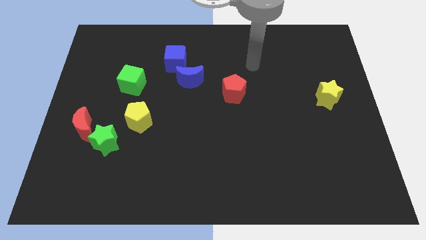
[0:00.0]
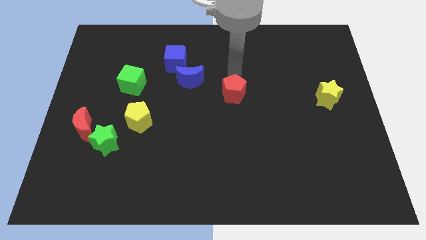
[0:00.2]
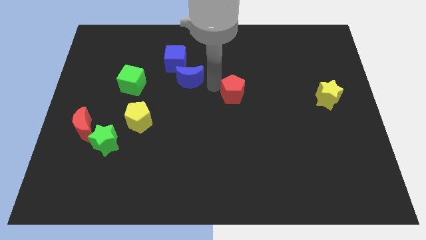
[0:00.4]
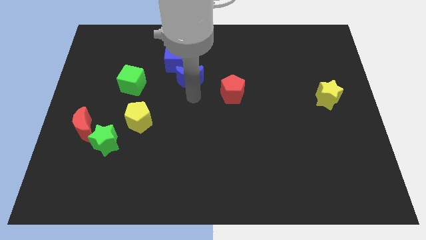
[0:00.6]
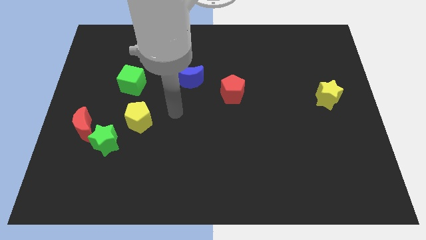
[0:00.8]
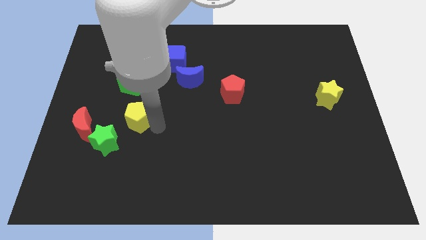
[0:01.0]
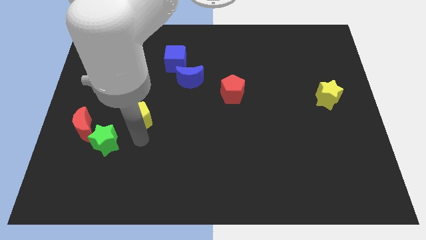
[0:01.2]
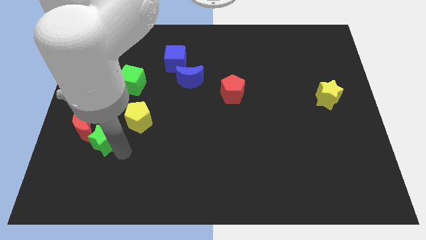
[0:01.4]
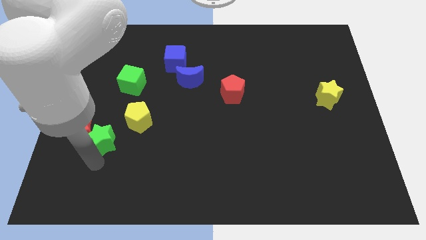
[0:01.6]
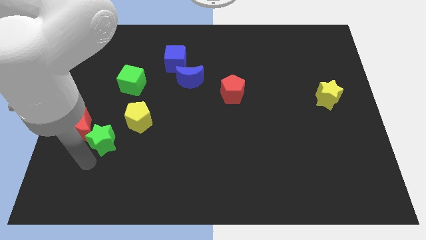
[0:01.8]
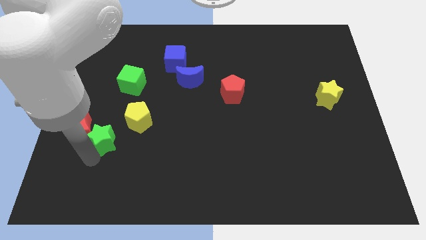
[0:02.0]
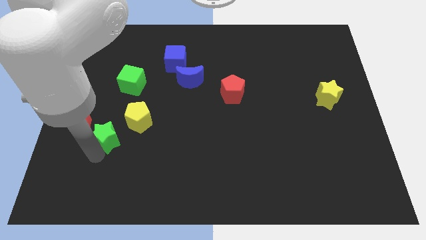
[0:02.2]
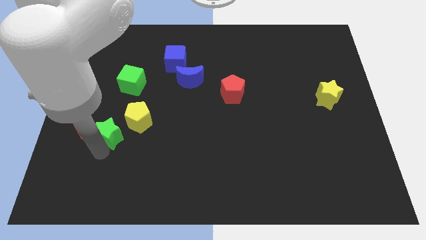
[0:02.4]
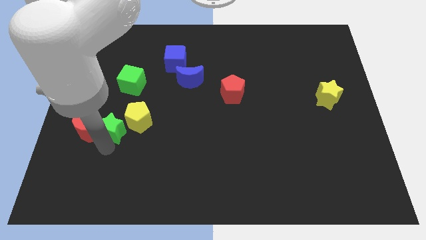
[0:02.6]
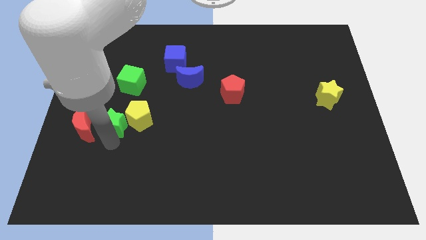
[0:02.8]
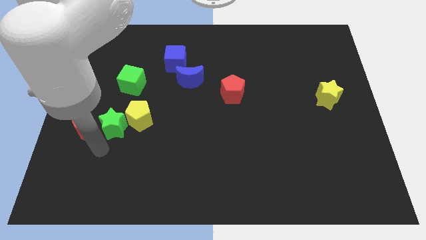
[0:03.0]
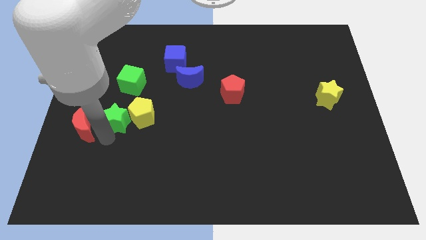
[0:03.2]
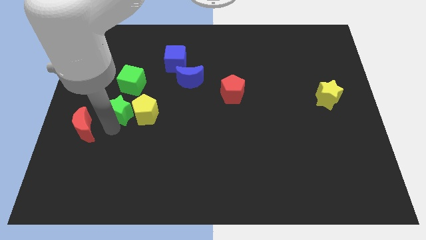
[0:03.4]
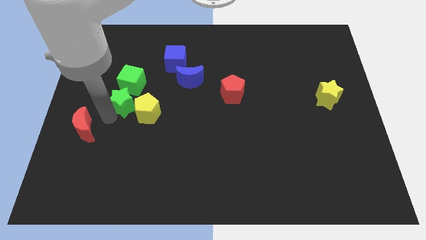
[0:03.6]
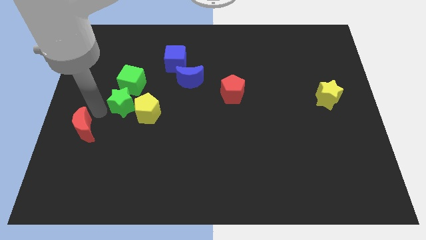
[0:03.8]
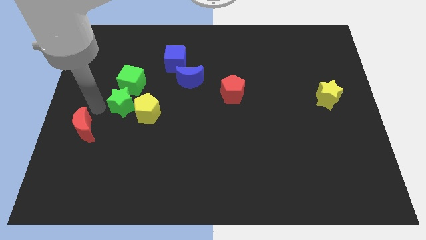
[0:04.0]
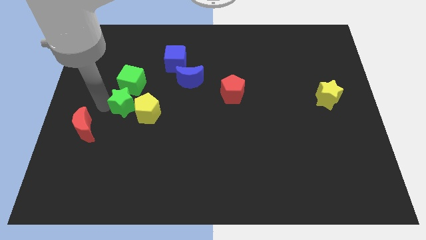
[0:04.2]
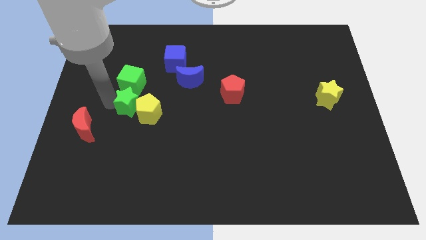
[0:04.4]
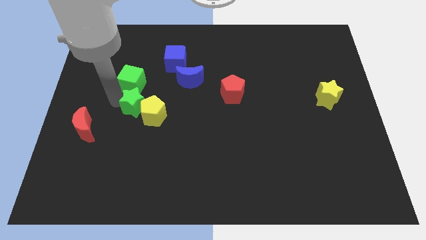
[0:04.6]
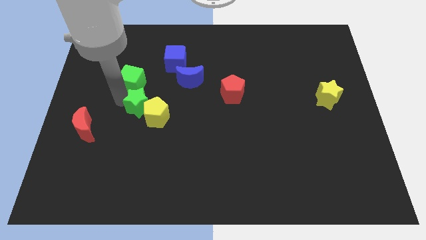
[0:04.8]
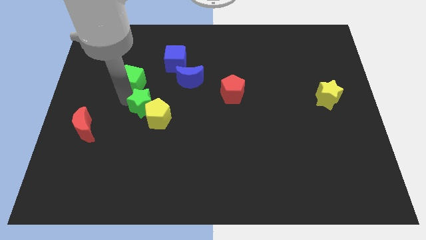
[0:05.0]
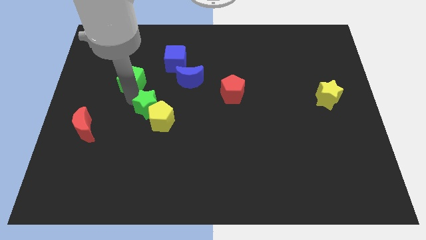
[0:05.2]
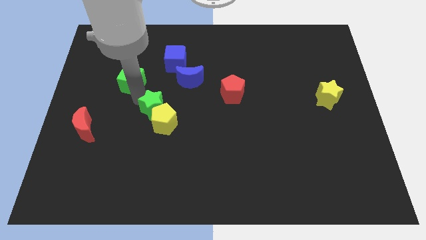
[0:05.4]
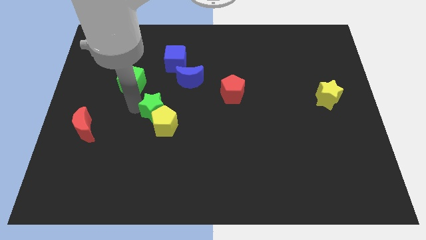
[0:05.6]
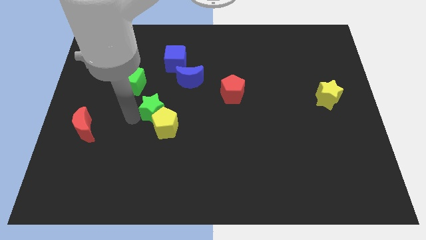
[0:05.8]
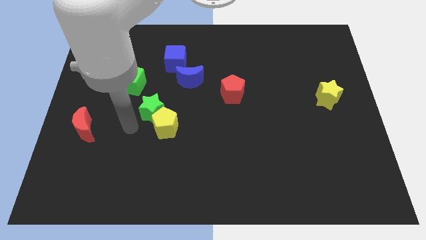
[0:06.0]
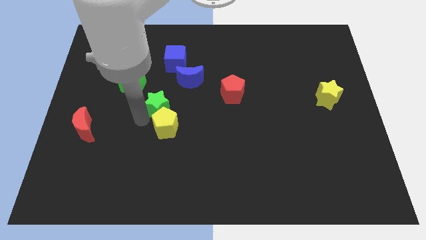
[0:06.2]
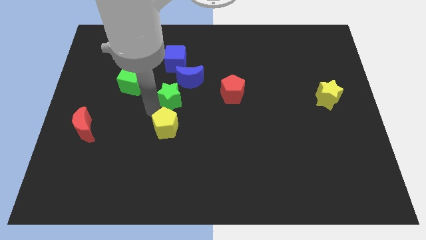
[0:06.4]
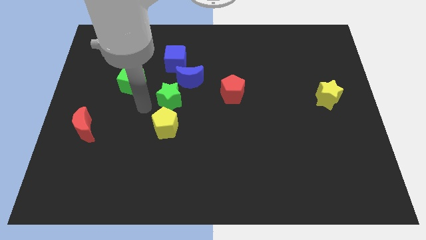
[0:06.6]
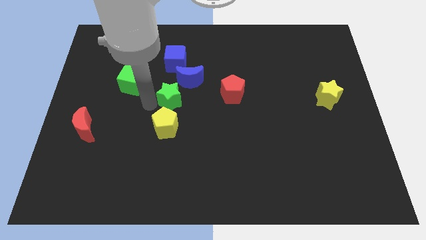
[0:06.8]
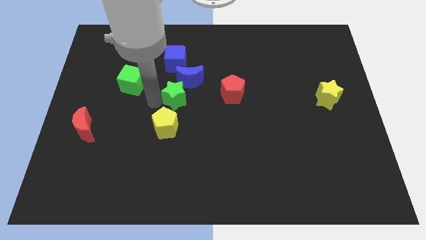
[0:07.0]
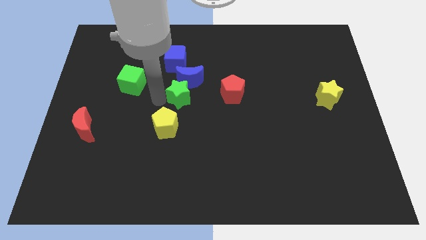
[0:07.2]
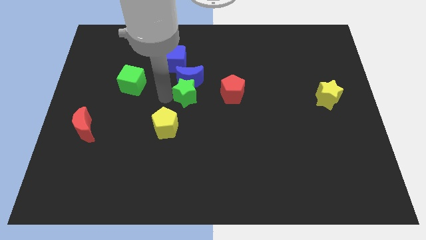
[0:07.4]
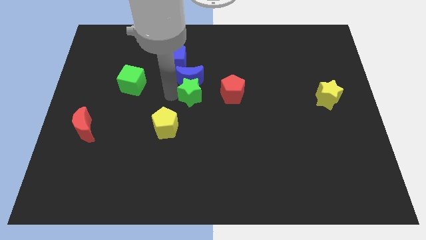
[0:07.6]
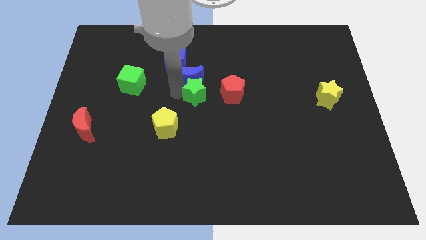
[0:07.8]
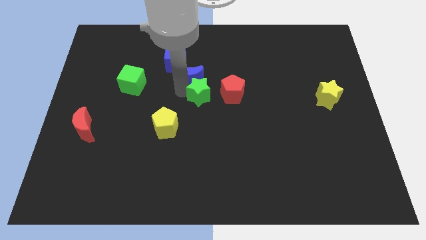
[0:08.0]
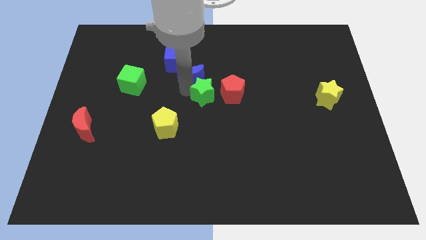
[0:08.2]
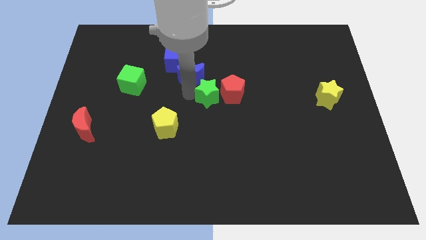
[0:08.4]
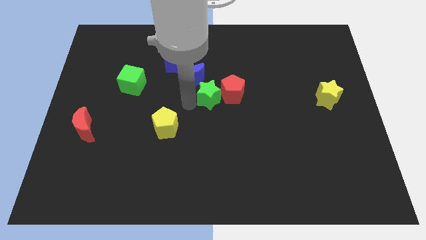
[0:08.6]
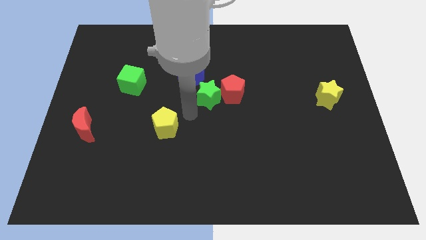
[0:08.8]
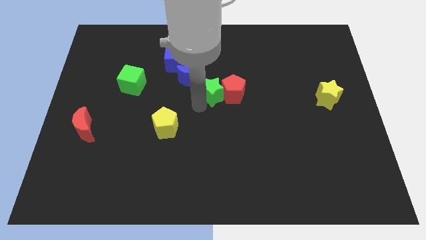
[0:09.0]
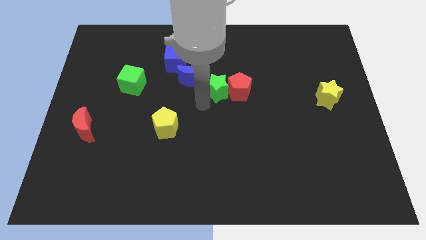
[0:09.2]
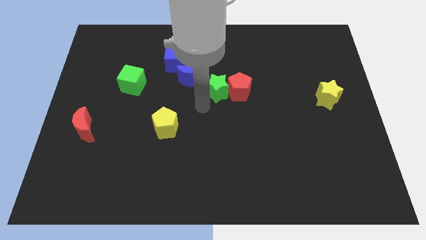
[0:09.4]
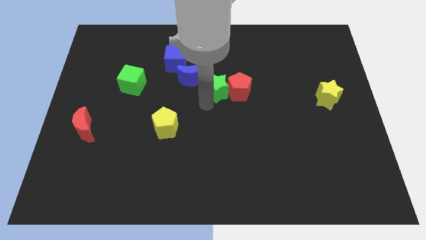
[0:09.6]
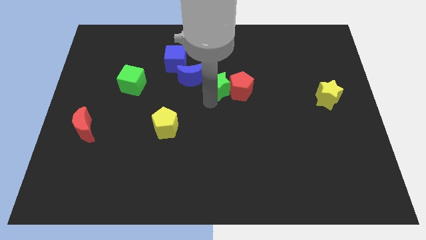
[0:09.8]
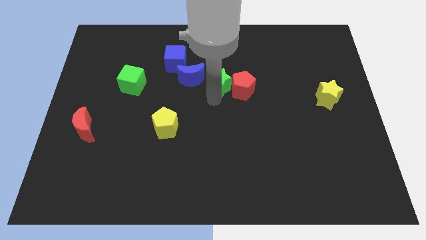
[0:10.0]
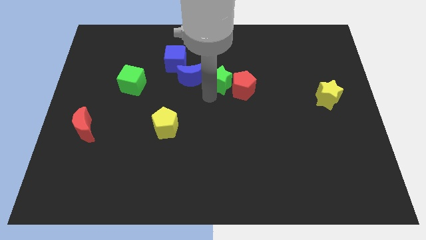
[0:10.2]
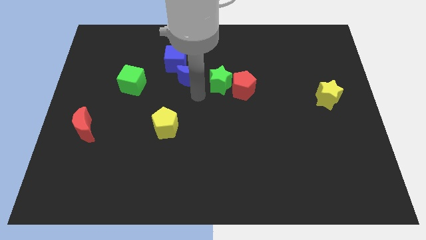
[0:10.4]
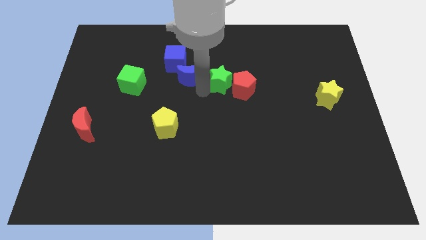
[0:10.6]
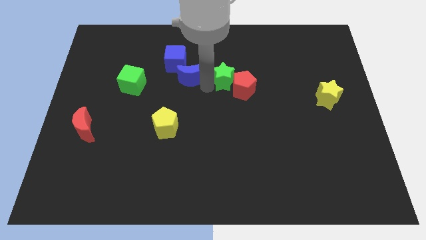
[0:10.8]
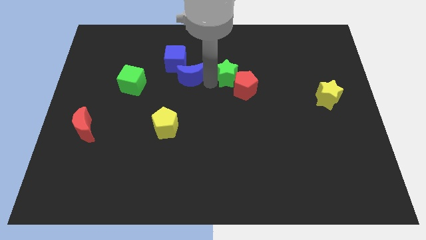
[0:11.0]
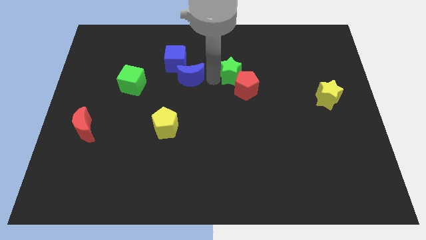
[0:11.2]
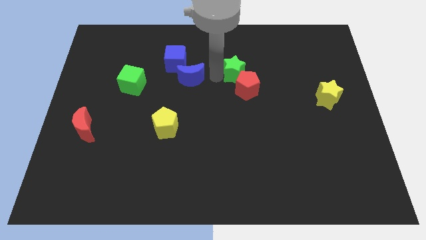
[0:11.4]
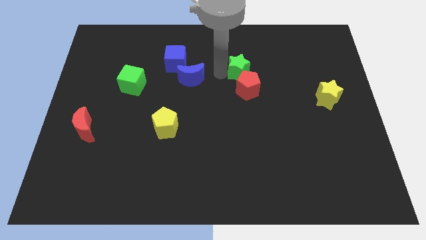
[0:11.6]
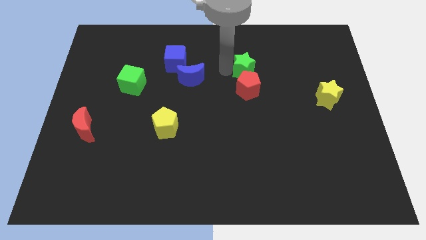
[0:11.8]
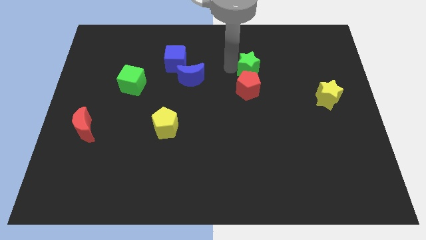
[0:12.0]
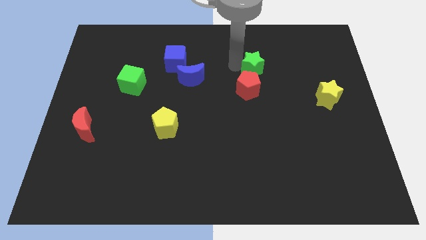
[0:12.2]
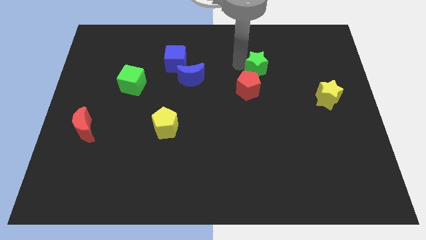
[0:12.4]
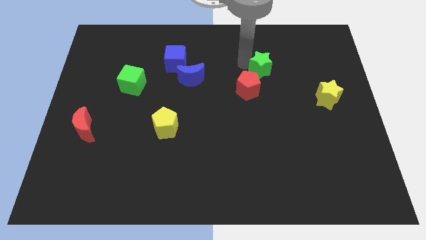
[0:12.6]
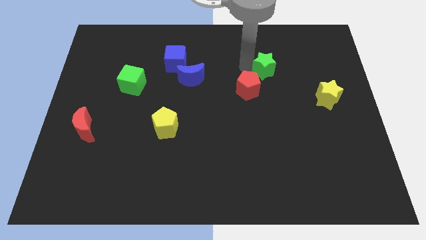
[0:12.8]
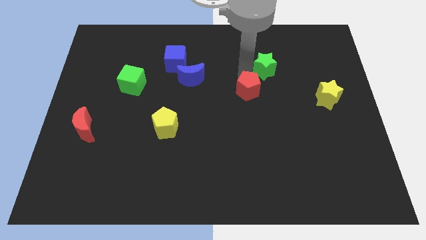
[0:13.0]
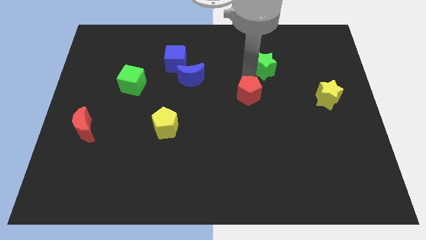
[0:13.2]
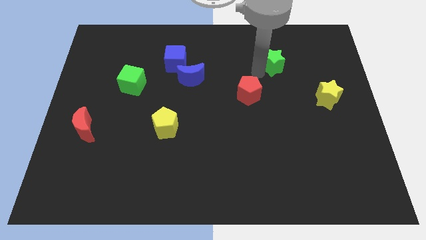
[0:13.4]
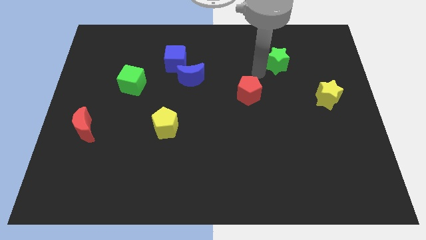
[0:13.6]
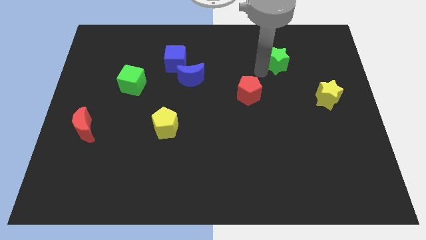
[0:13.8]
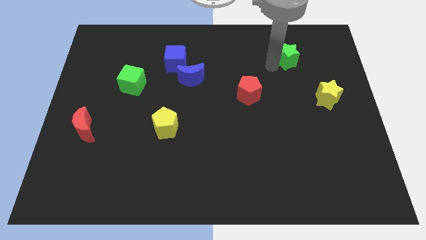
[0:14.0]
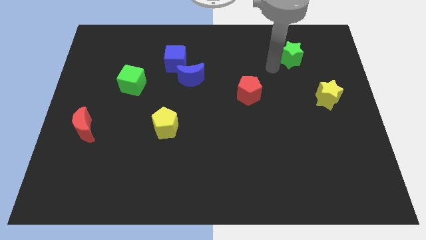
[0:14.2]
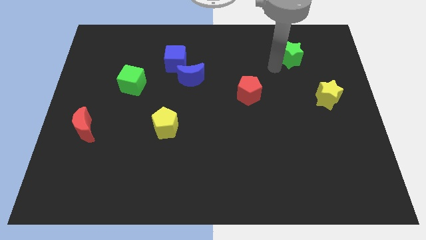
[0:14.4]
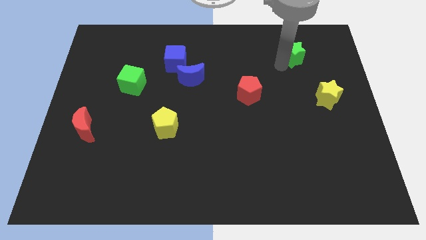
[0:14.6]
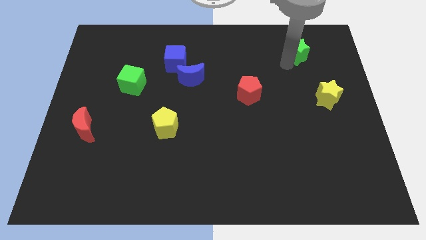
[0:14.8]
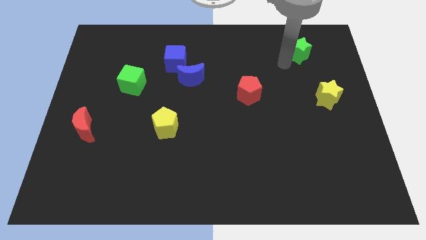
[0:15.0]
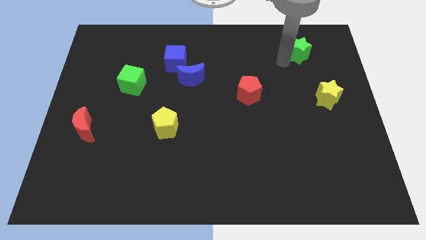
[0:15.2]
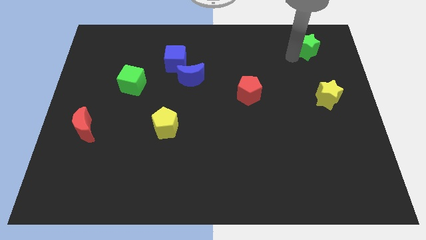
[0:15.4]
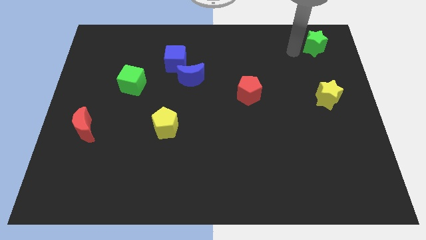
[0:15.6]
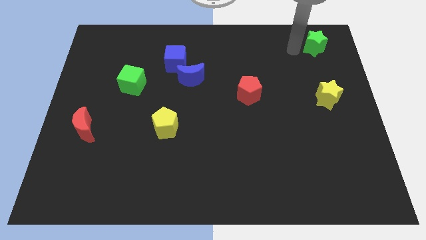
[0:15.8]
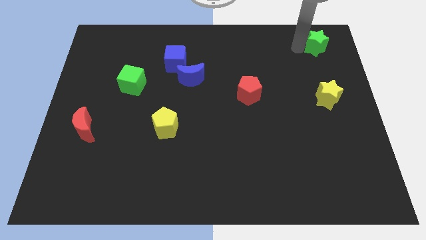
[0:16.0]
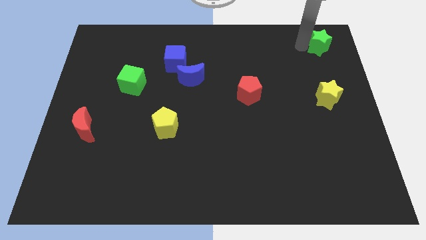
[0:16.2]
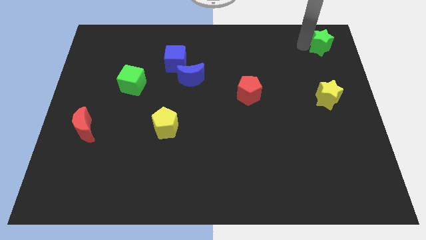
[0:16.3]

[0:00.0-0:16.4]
slide the green star to the upper right corner
